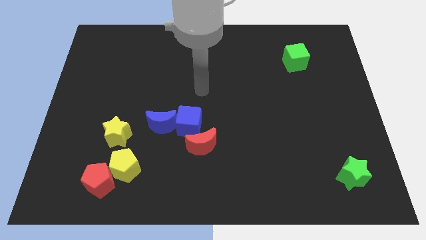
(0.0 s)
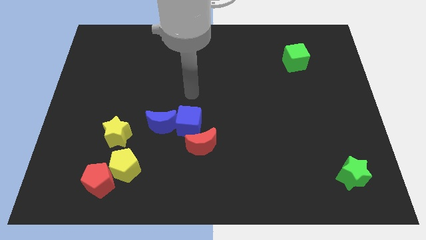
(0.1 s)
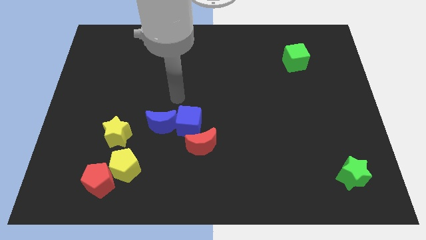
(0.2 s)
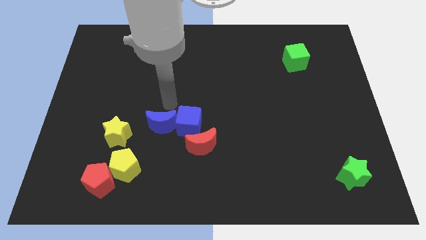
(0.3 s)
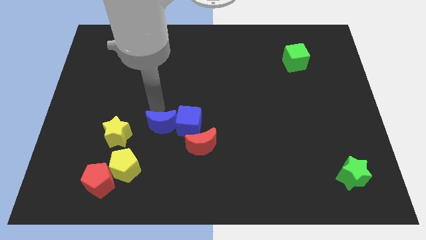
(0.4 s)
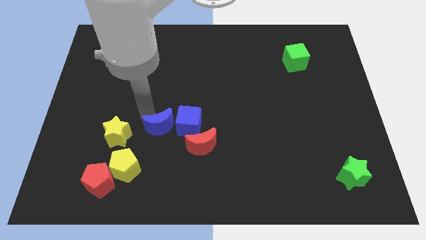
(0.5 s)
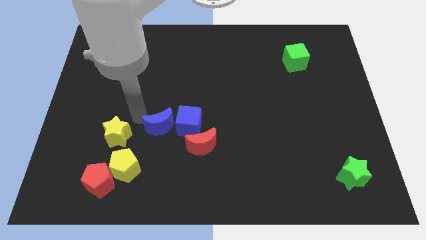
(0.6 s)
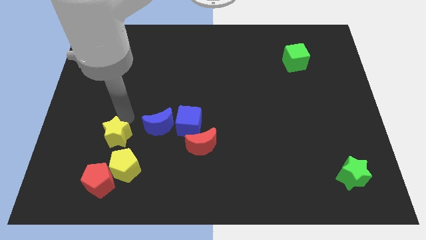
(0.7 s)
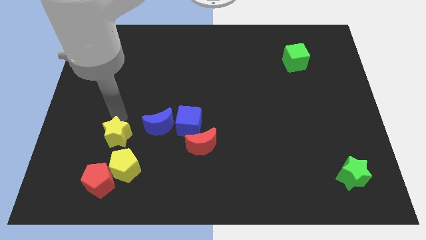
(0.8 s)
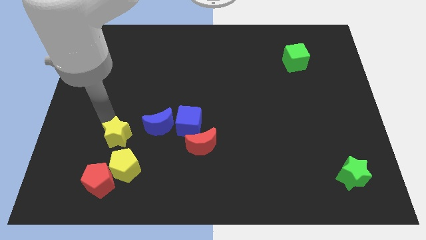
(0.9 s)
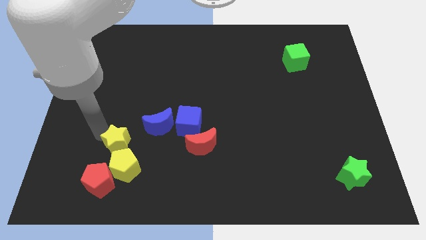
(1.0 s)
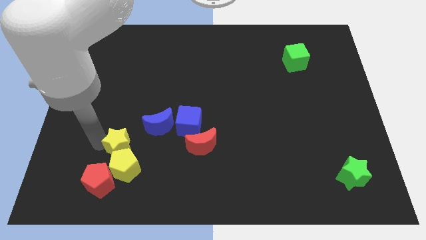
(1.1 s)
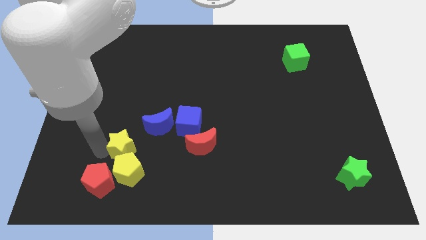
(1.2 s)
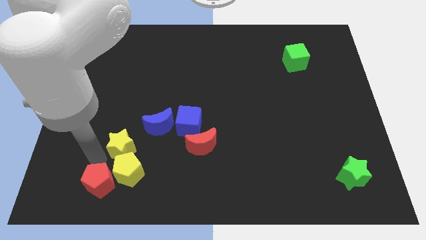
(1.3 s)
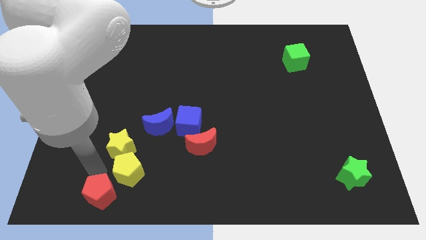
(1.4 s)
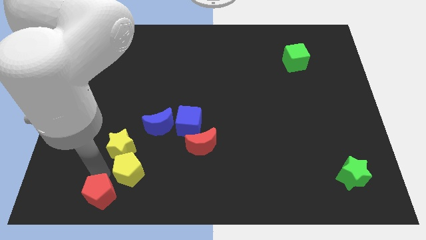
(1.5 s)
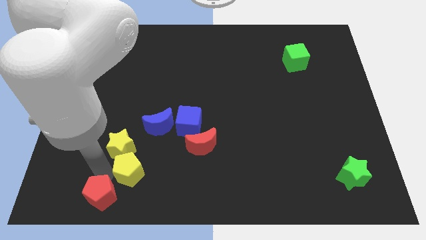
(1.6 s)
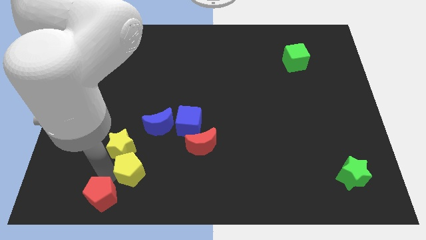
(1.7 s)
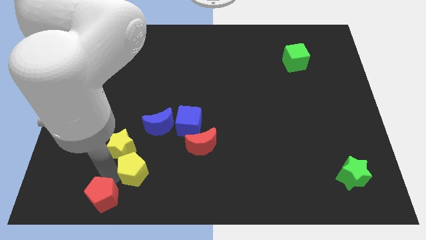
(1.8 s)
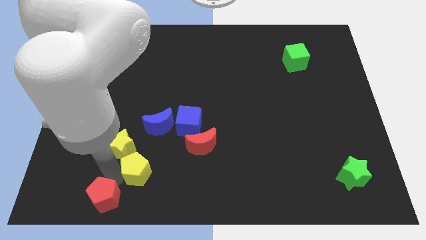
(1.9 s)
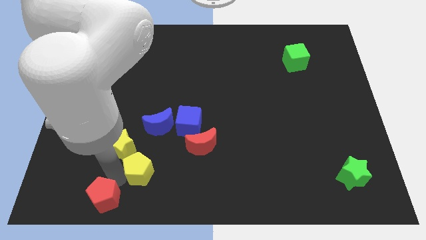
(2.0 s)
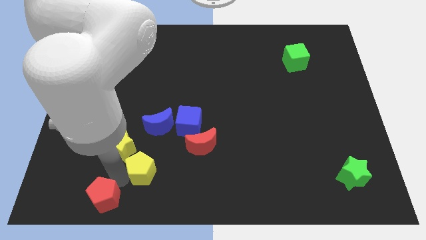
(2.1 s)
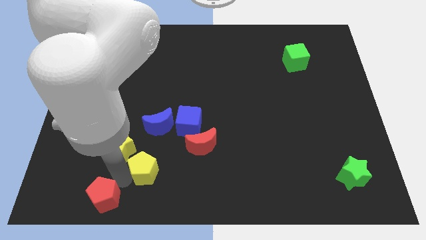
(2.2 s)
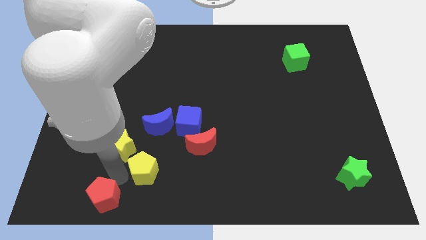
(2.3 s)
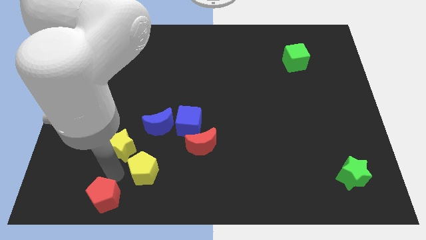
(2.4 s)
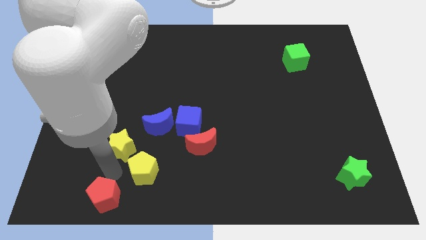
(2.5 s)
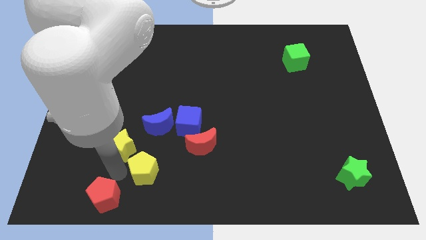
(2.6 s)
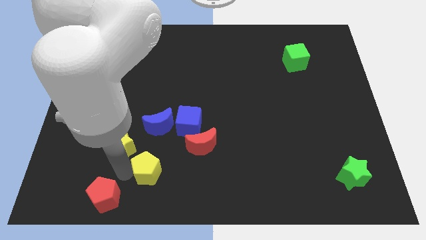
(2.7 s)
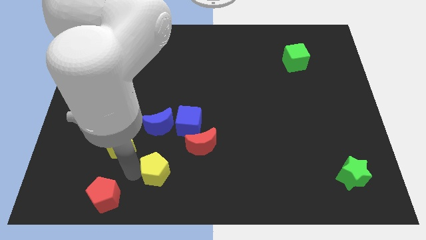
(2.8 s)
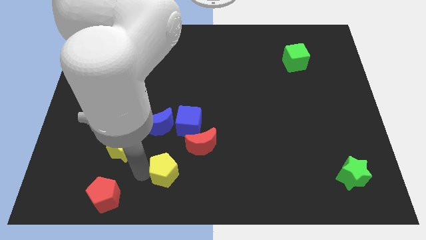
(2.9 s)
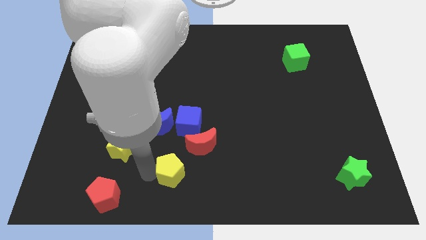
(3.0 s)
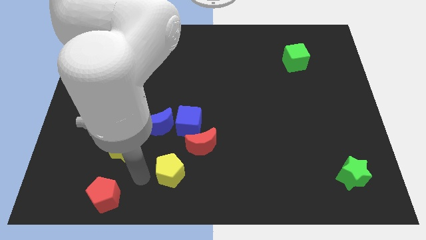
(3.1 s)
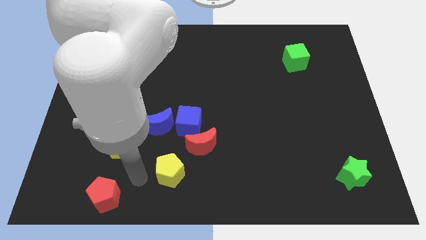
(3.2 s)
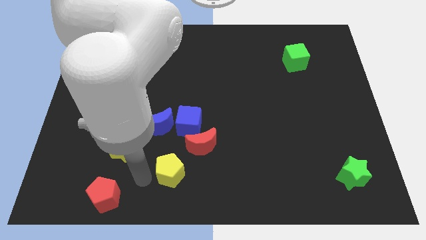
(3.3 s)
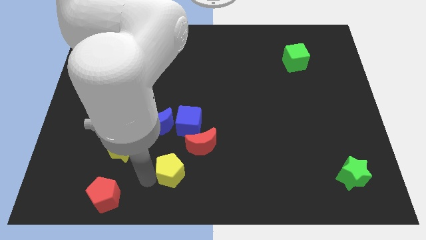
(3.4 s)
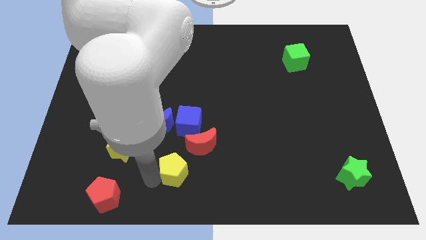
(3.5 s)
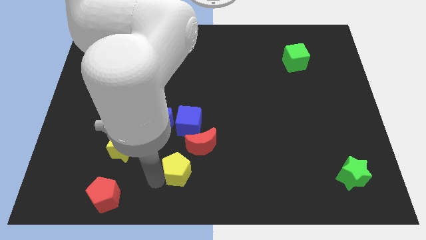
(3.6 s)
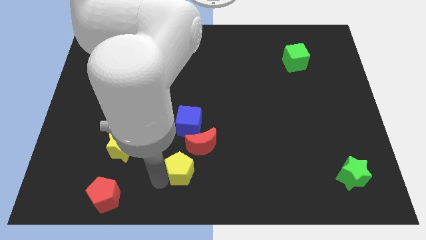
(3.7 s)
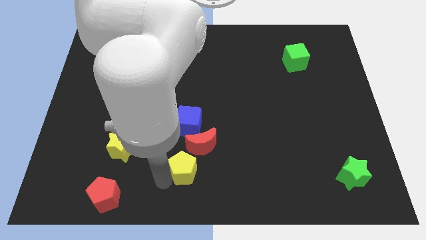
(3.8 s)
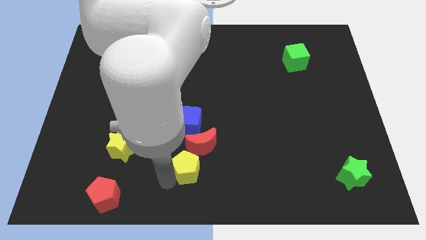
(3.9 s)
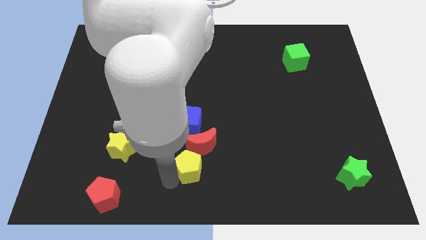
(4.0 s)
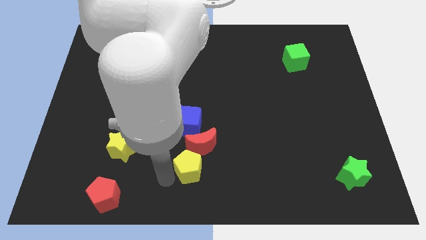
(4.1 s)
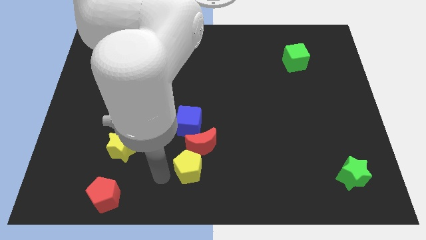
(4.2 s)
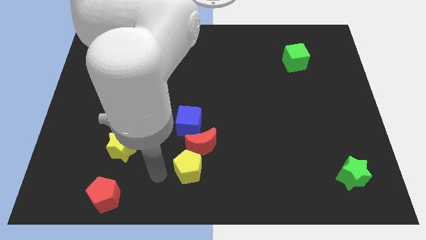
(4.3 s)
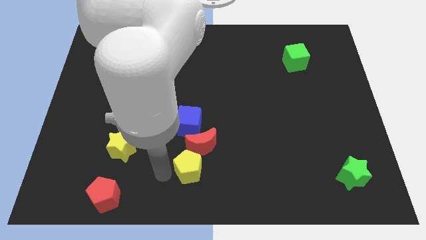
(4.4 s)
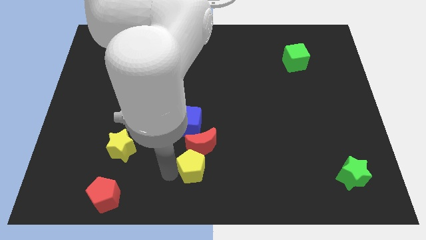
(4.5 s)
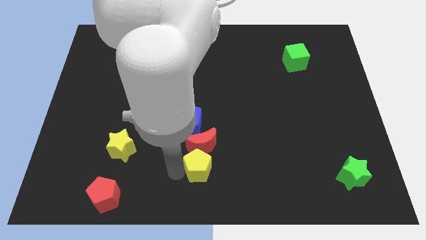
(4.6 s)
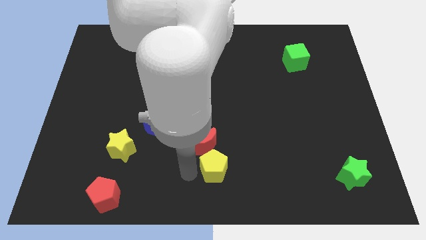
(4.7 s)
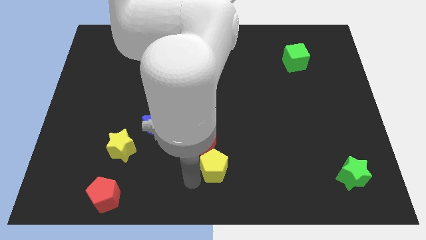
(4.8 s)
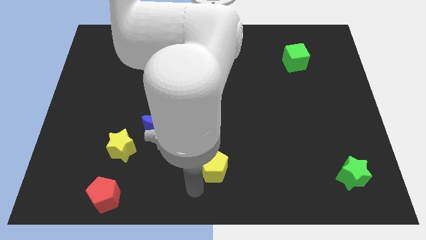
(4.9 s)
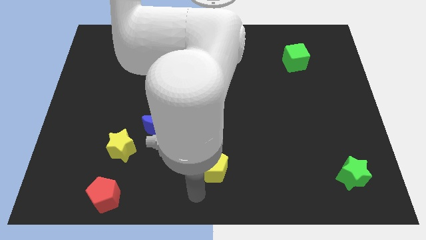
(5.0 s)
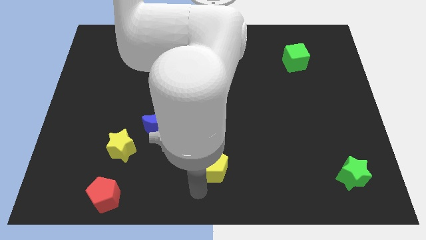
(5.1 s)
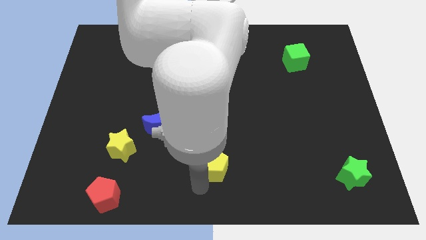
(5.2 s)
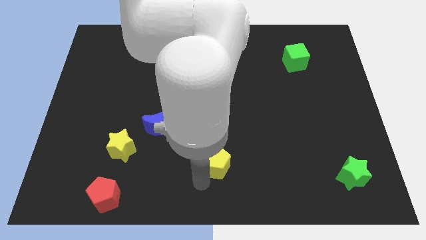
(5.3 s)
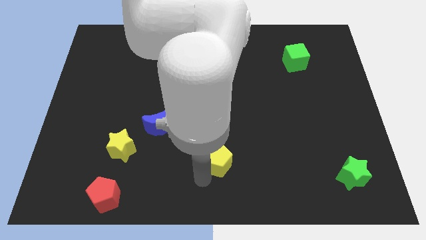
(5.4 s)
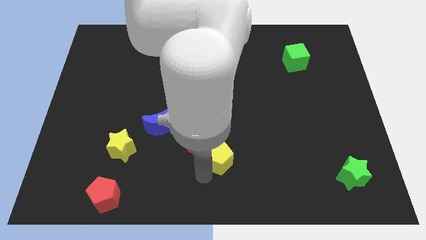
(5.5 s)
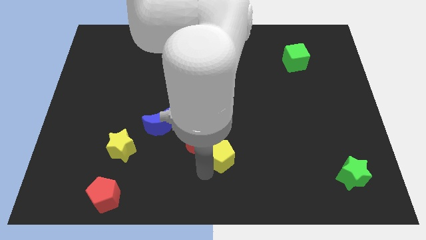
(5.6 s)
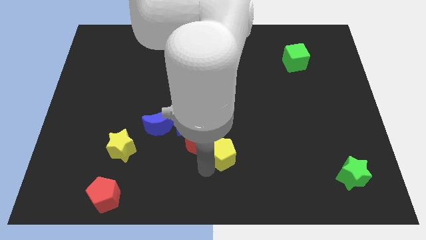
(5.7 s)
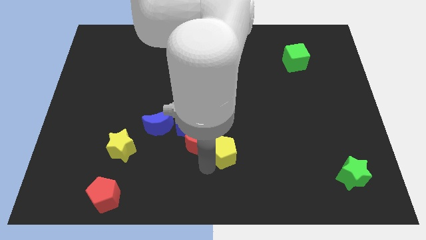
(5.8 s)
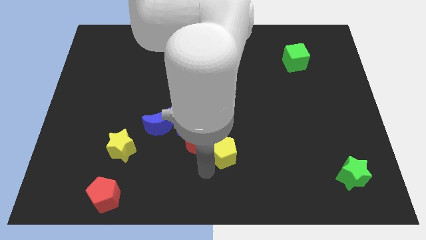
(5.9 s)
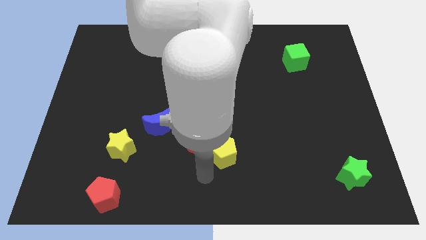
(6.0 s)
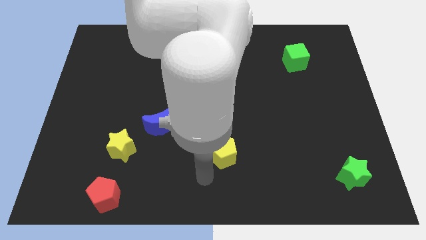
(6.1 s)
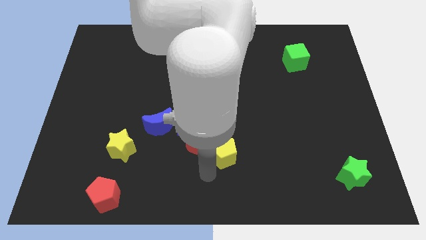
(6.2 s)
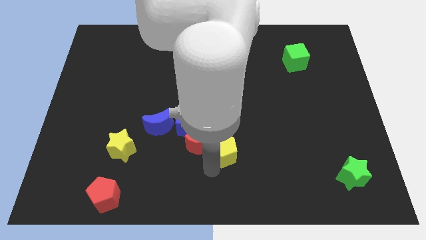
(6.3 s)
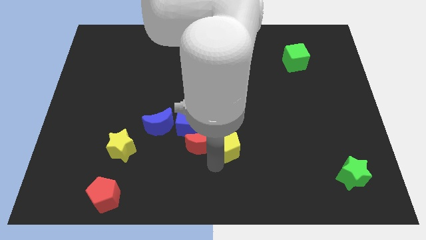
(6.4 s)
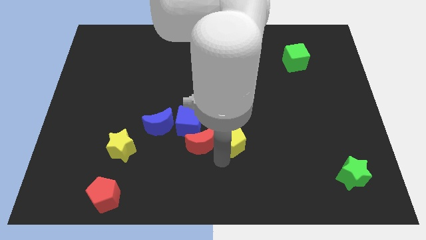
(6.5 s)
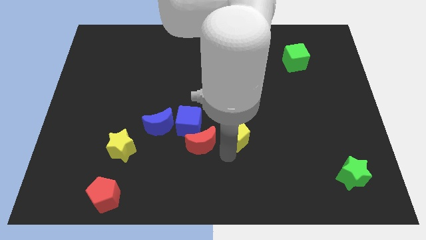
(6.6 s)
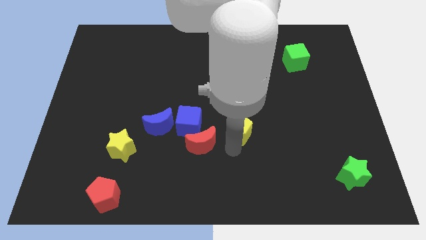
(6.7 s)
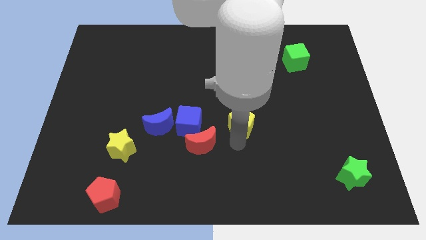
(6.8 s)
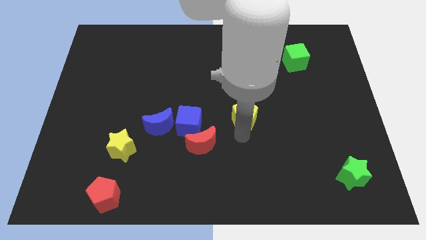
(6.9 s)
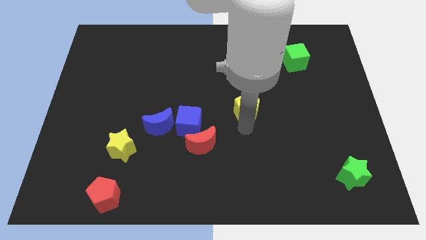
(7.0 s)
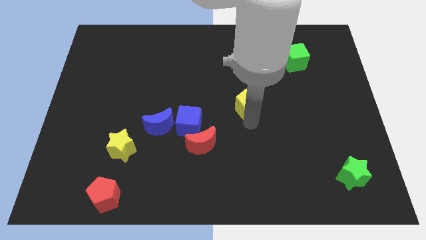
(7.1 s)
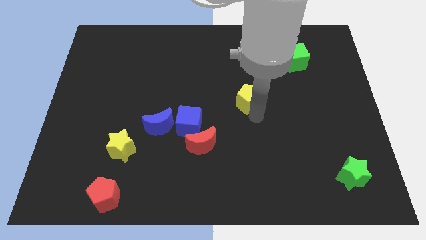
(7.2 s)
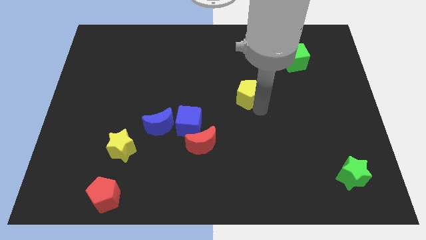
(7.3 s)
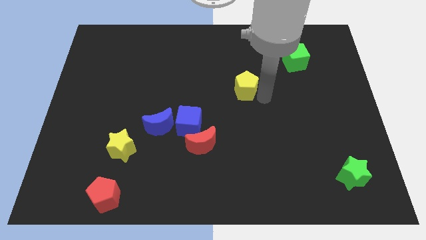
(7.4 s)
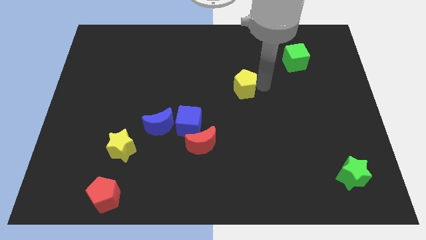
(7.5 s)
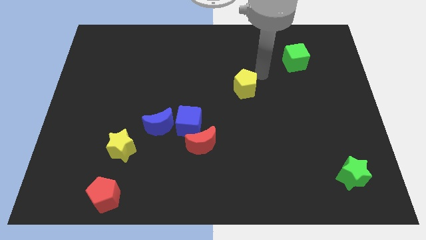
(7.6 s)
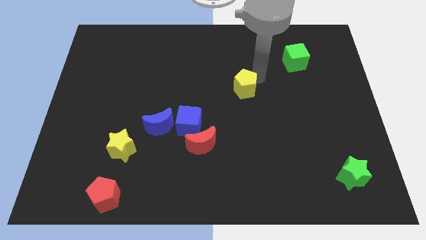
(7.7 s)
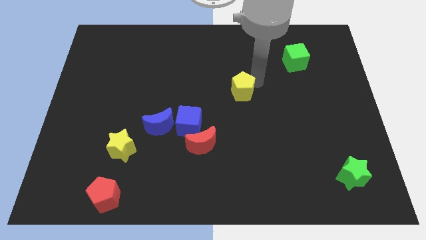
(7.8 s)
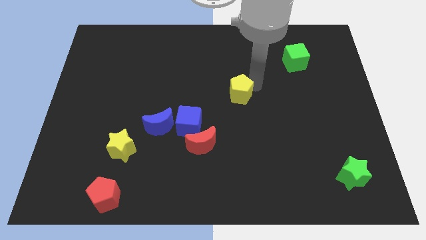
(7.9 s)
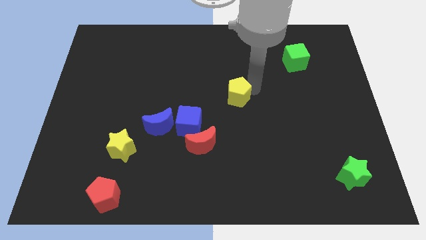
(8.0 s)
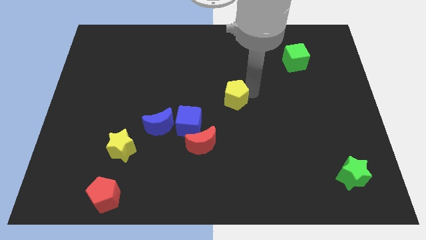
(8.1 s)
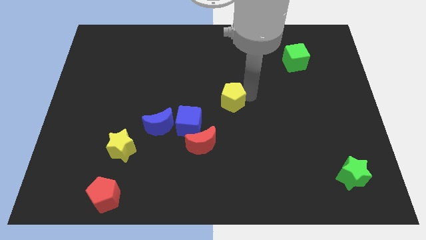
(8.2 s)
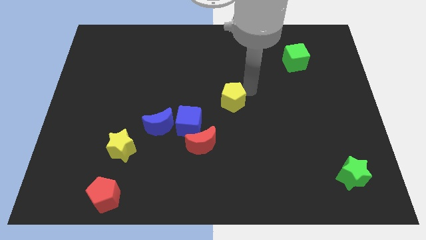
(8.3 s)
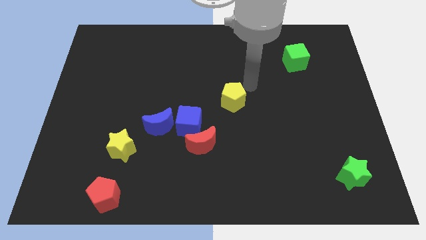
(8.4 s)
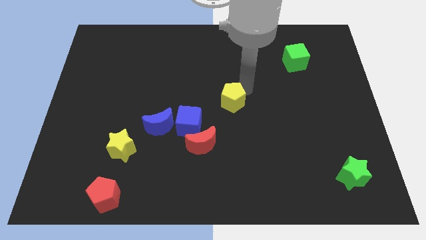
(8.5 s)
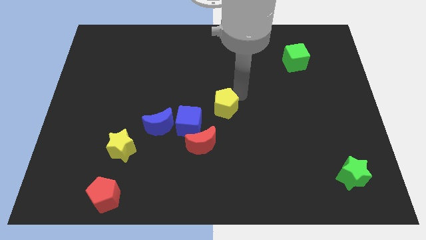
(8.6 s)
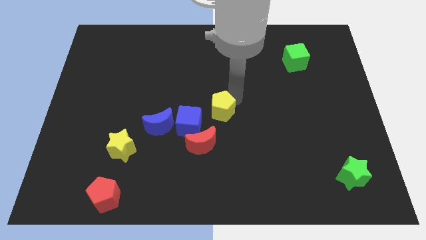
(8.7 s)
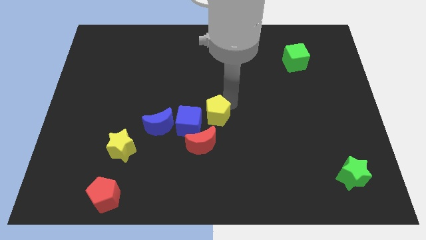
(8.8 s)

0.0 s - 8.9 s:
push the yellow pentagon just right of the blue moon
